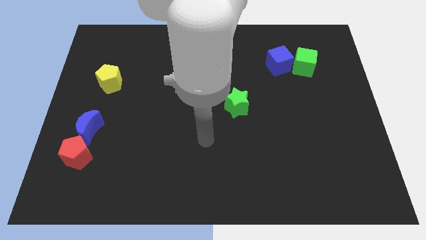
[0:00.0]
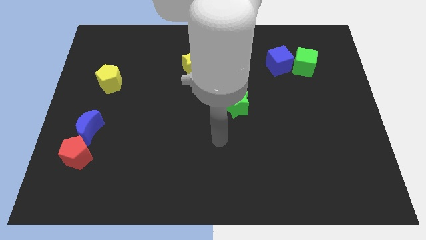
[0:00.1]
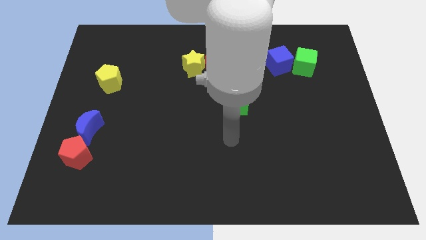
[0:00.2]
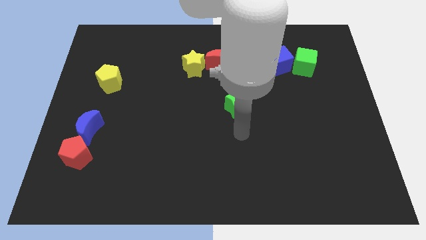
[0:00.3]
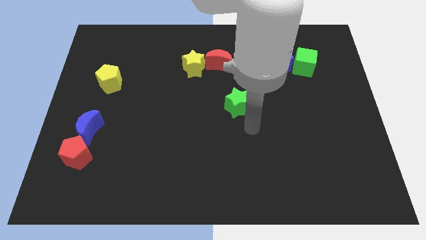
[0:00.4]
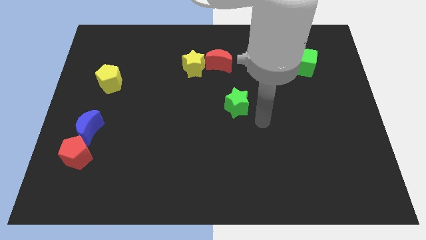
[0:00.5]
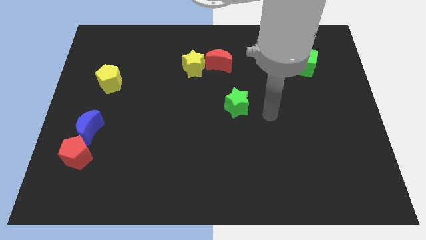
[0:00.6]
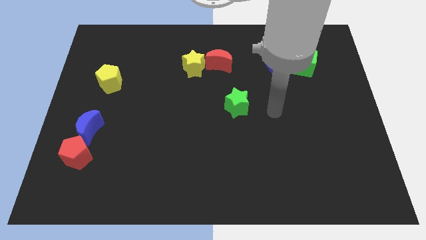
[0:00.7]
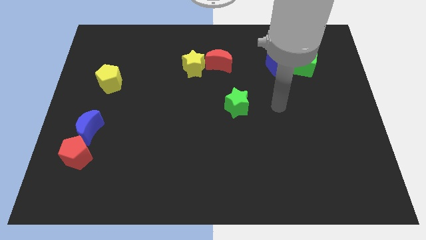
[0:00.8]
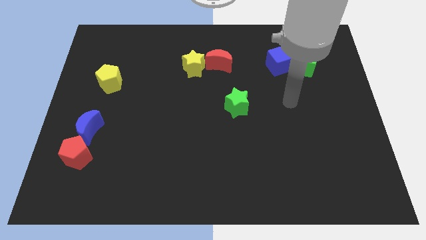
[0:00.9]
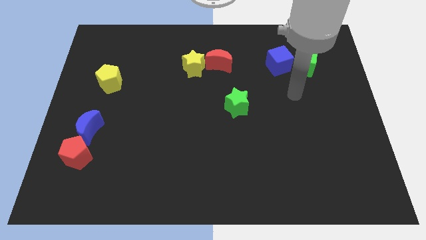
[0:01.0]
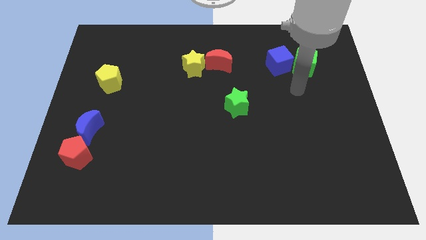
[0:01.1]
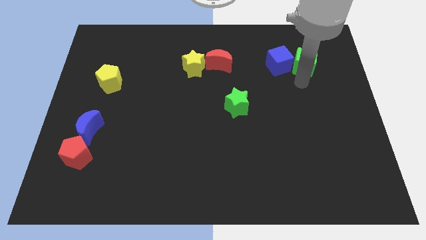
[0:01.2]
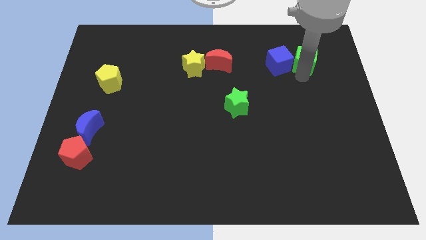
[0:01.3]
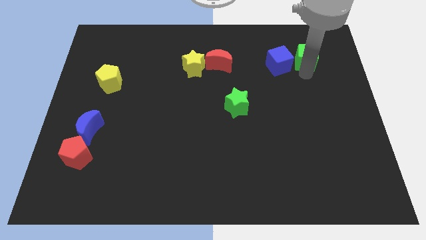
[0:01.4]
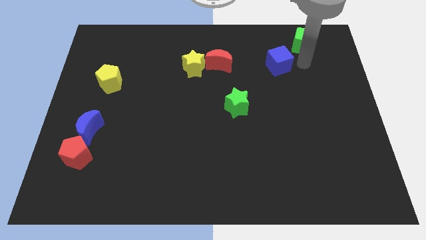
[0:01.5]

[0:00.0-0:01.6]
separate the blue cube from the green cube

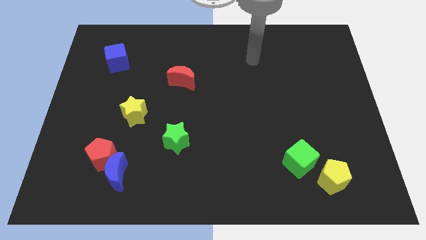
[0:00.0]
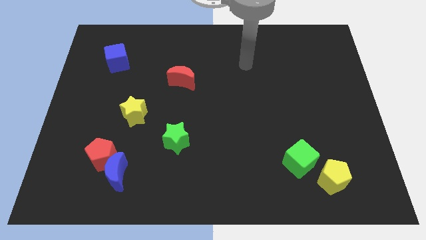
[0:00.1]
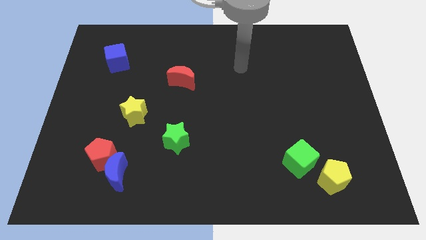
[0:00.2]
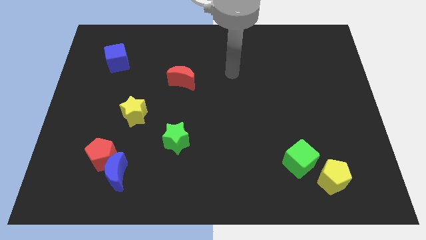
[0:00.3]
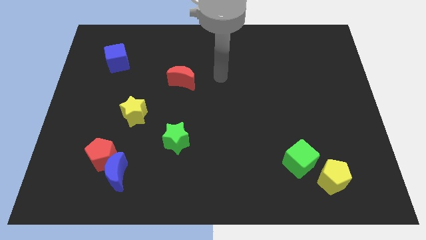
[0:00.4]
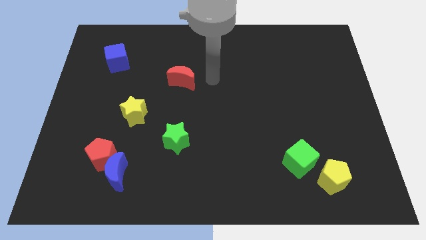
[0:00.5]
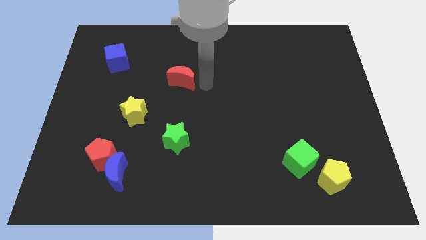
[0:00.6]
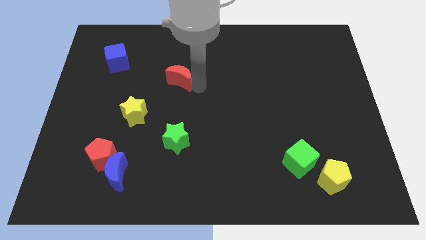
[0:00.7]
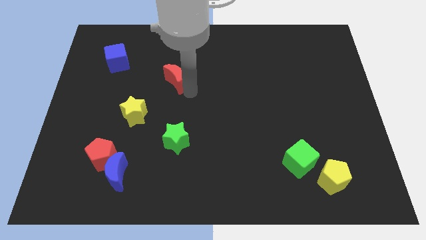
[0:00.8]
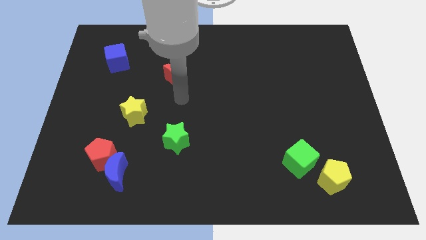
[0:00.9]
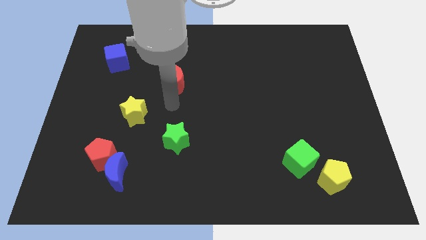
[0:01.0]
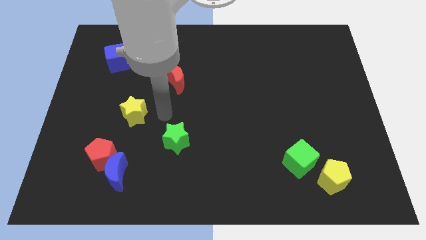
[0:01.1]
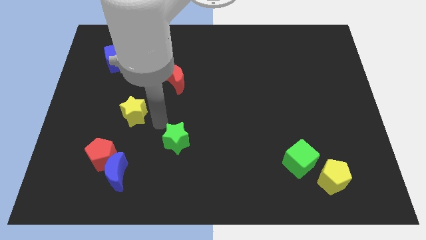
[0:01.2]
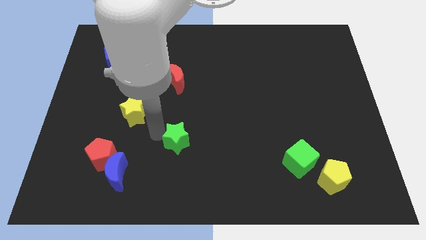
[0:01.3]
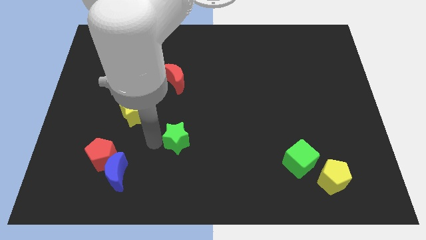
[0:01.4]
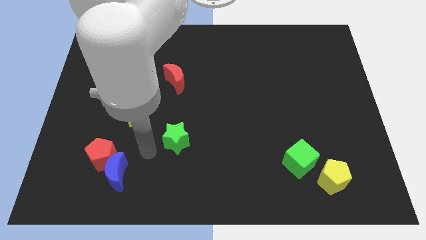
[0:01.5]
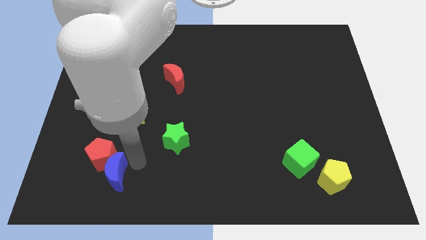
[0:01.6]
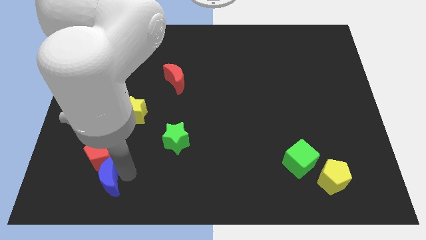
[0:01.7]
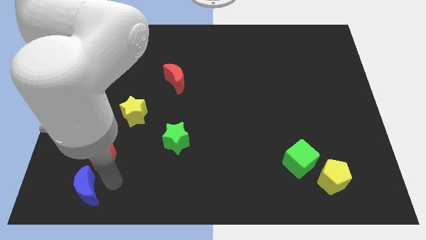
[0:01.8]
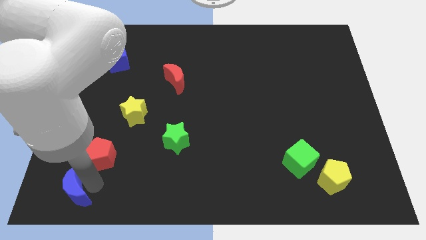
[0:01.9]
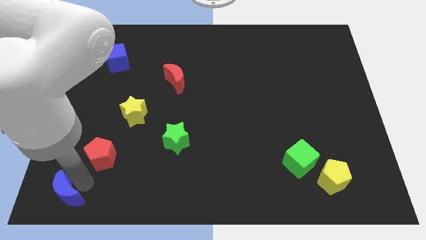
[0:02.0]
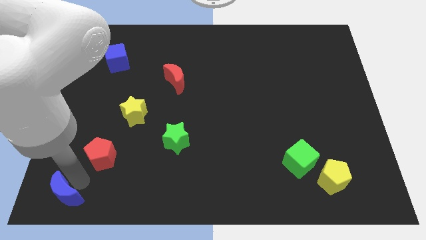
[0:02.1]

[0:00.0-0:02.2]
move the red pentagon away from the blue moon

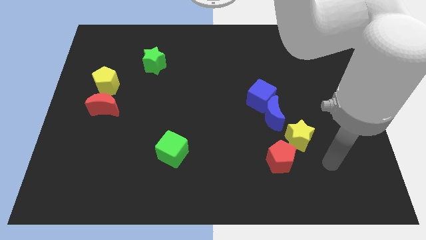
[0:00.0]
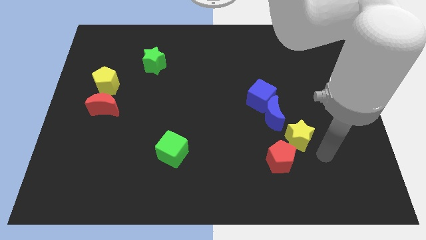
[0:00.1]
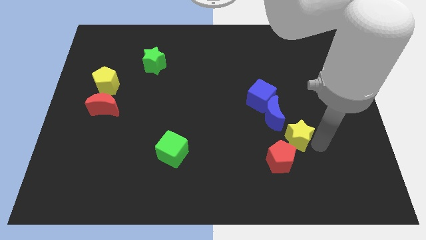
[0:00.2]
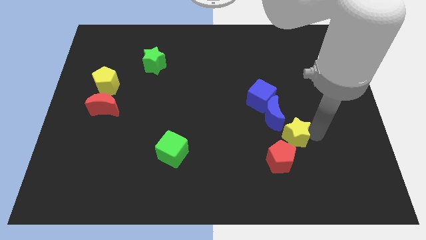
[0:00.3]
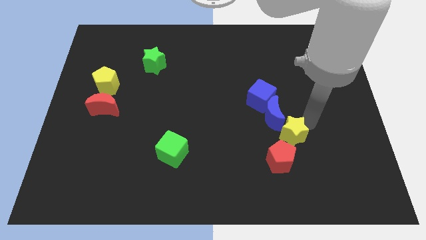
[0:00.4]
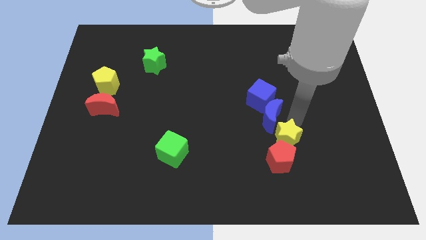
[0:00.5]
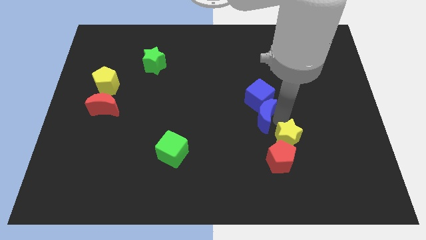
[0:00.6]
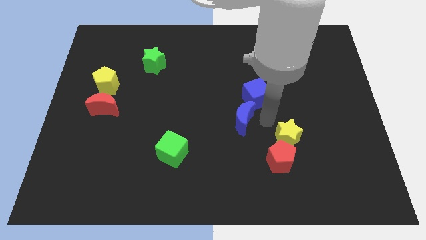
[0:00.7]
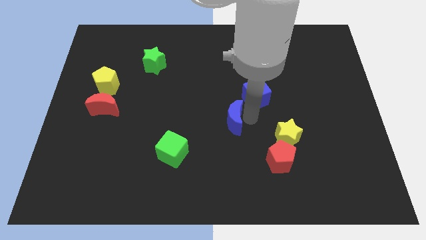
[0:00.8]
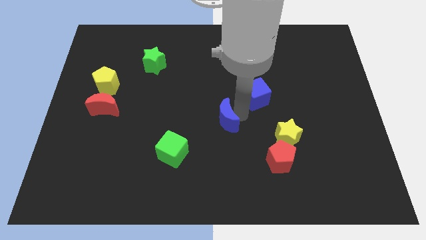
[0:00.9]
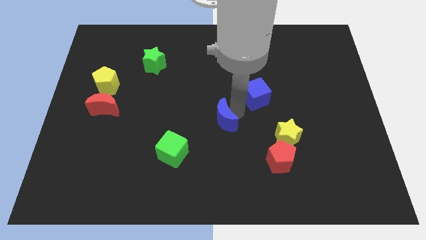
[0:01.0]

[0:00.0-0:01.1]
move the blue cube away from the blue moon

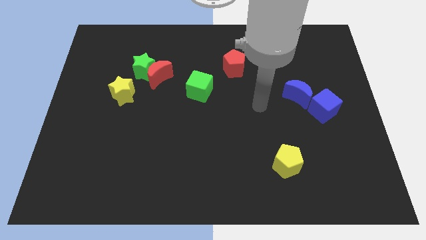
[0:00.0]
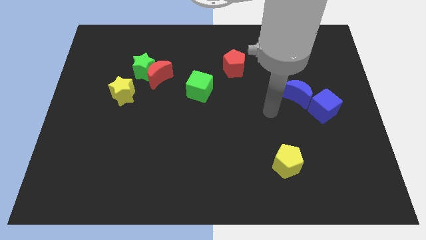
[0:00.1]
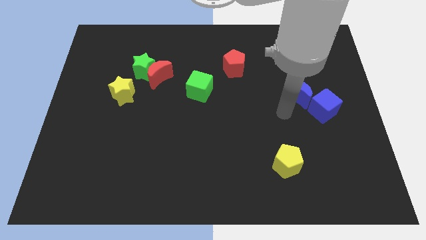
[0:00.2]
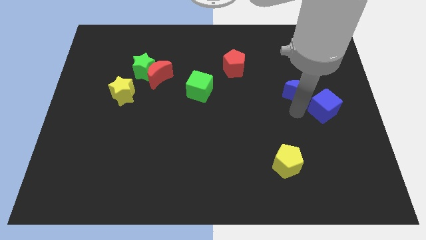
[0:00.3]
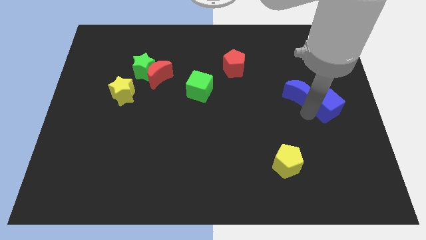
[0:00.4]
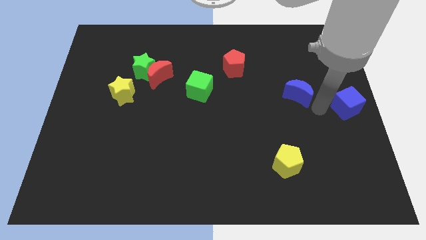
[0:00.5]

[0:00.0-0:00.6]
move the blue moon away from the blue cube

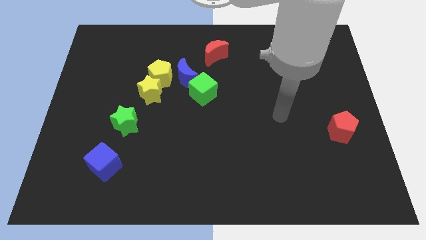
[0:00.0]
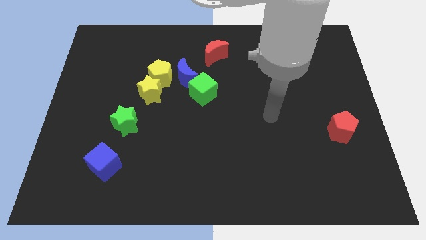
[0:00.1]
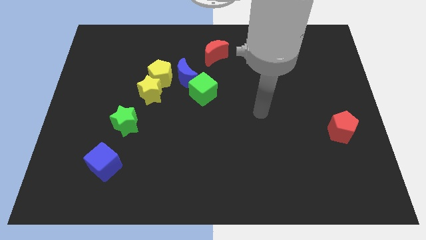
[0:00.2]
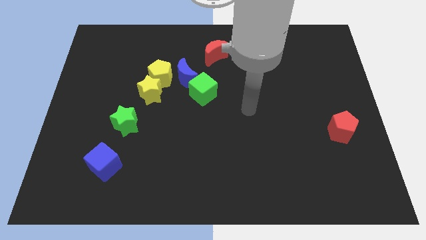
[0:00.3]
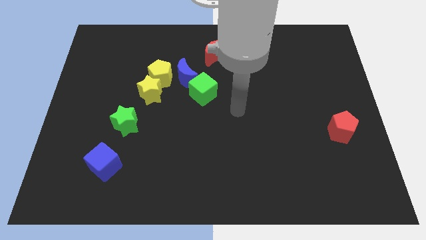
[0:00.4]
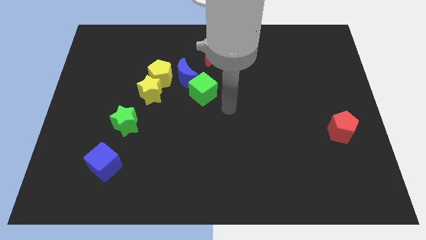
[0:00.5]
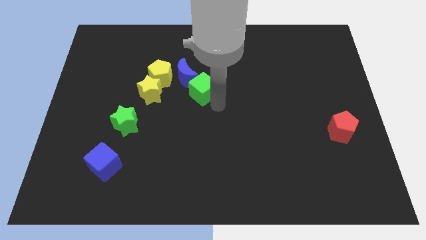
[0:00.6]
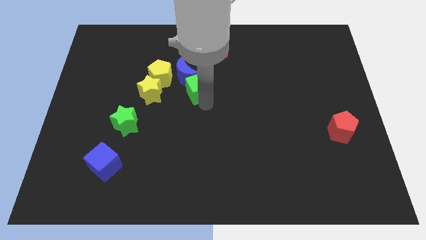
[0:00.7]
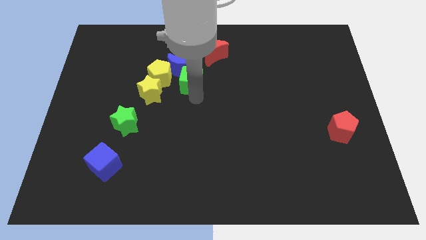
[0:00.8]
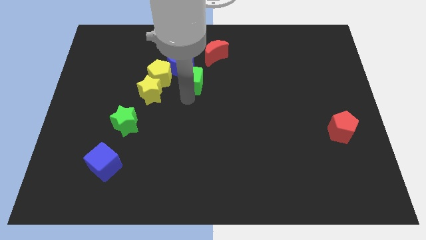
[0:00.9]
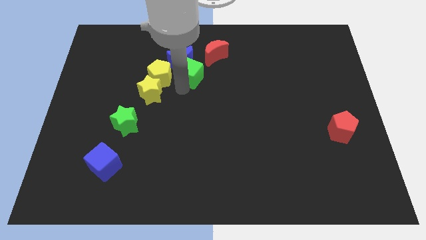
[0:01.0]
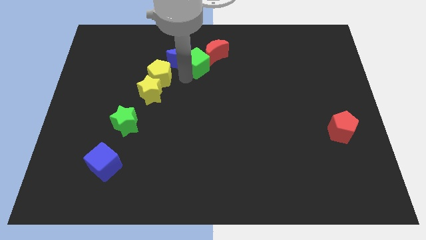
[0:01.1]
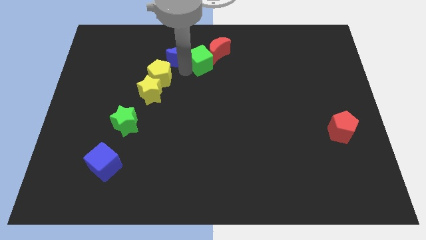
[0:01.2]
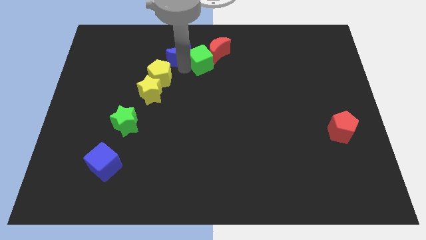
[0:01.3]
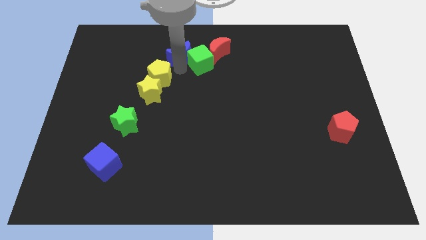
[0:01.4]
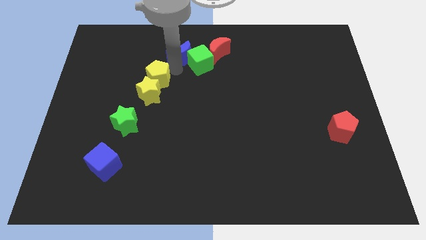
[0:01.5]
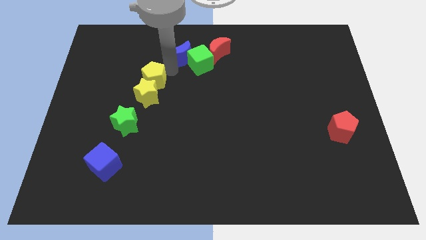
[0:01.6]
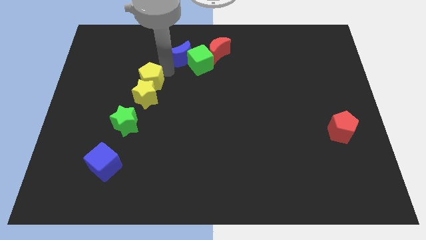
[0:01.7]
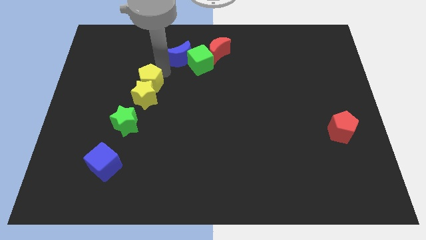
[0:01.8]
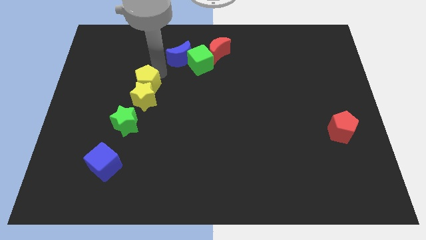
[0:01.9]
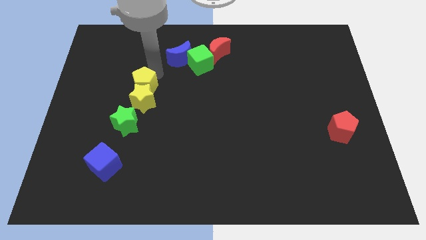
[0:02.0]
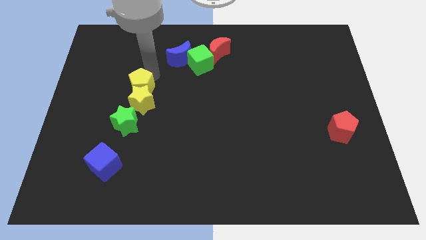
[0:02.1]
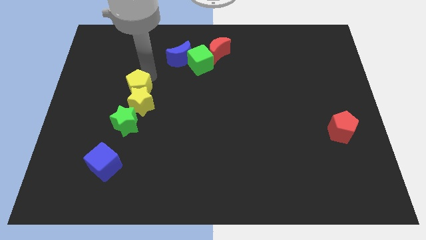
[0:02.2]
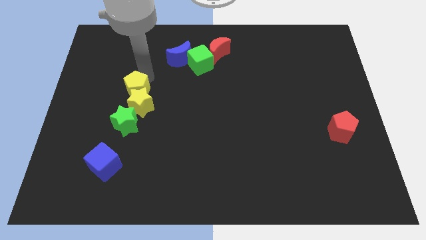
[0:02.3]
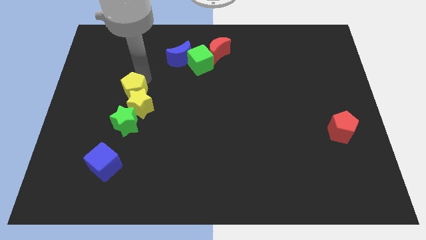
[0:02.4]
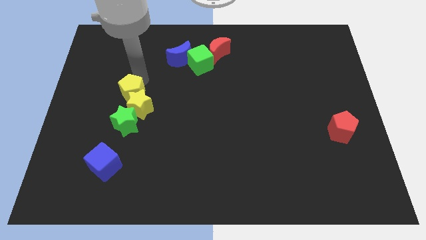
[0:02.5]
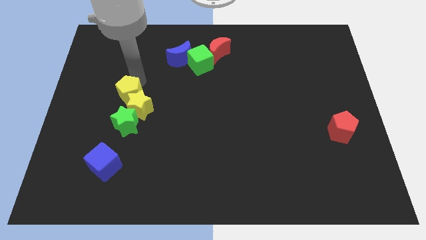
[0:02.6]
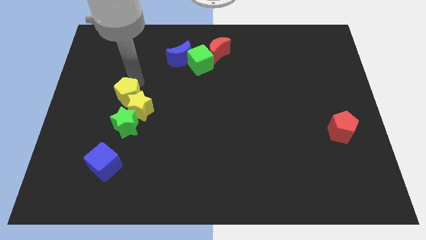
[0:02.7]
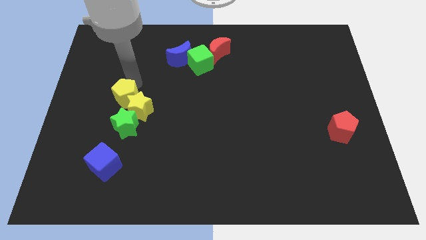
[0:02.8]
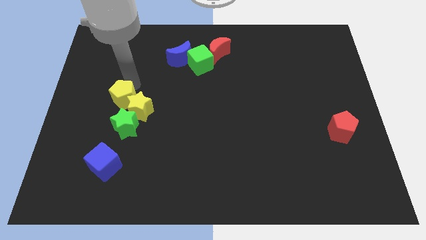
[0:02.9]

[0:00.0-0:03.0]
separate the yellow pentagon from the yellow star and blue moon

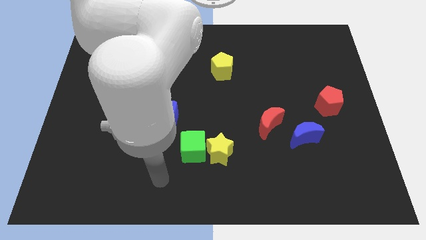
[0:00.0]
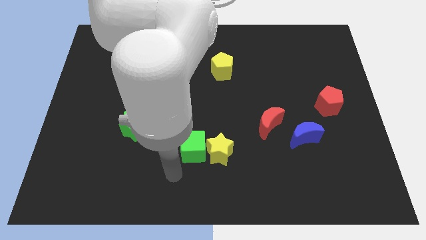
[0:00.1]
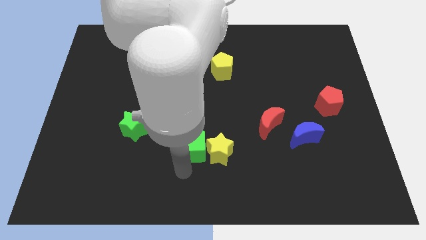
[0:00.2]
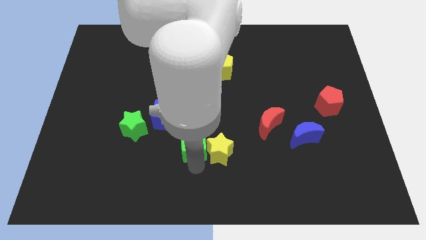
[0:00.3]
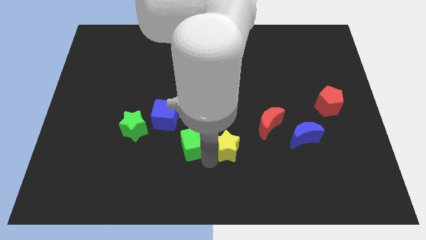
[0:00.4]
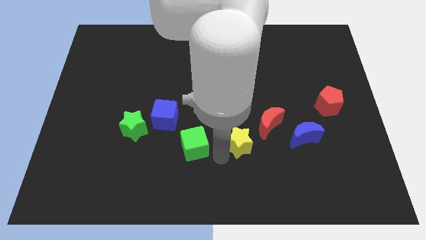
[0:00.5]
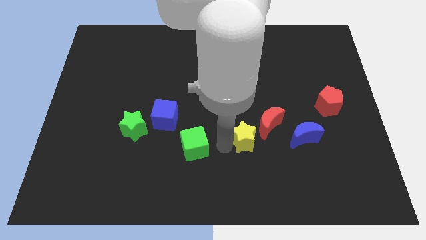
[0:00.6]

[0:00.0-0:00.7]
move the green cube away from the yellow star

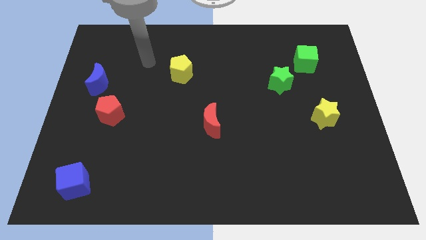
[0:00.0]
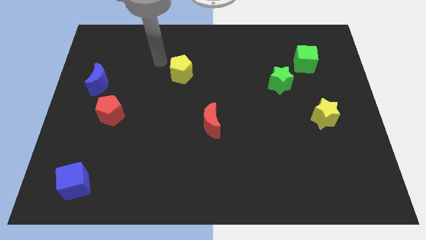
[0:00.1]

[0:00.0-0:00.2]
separate the green cube from the green star
